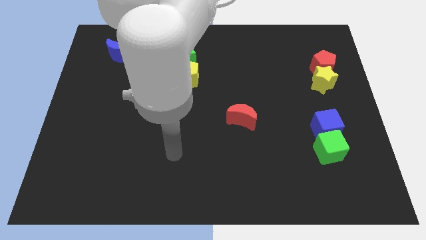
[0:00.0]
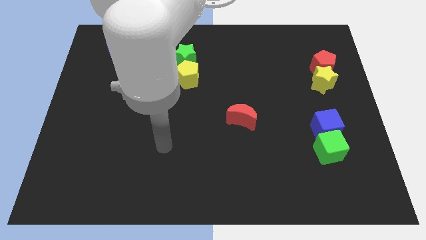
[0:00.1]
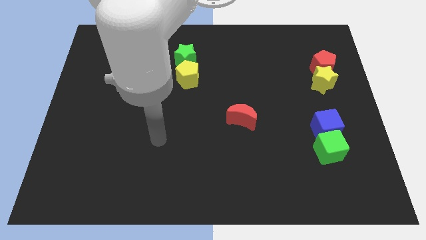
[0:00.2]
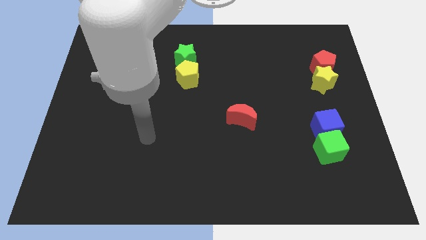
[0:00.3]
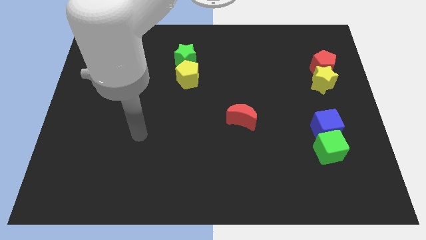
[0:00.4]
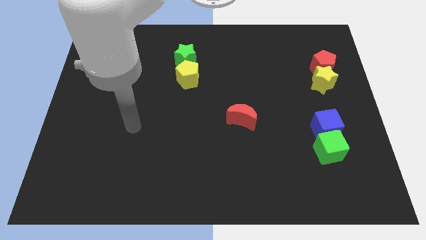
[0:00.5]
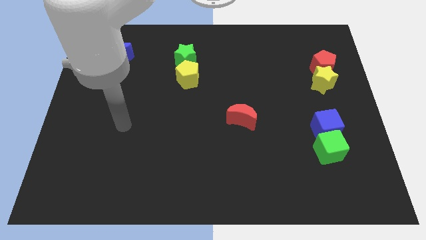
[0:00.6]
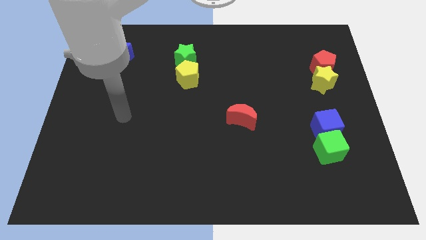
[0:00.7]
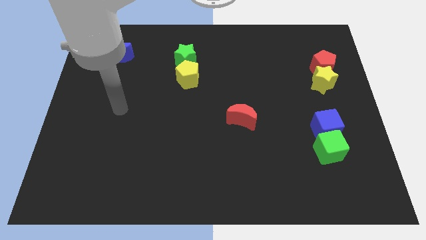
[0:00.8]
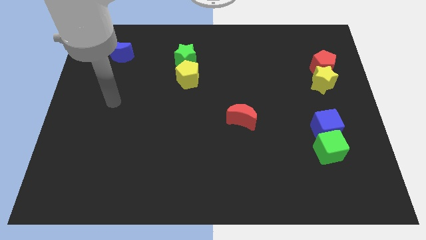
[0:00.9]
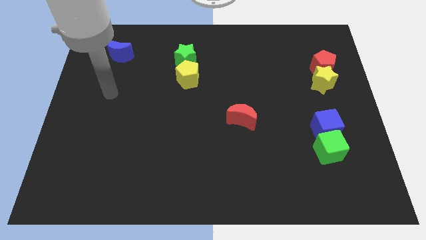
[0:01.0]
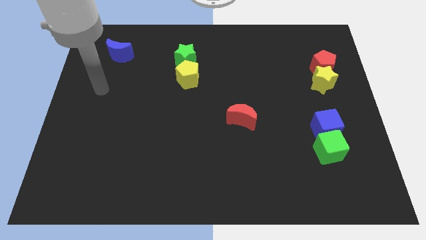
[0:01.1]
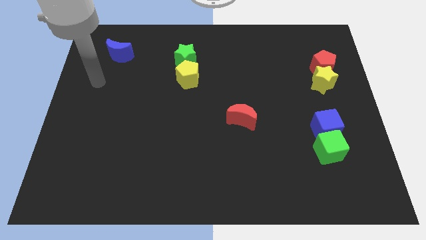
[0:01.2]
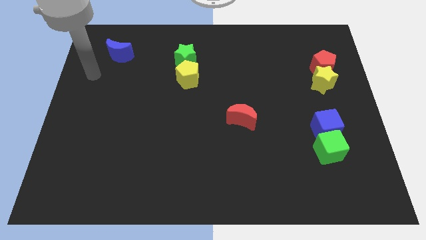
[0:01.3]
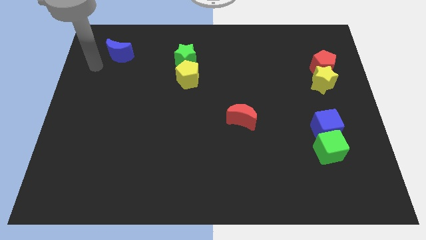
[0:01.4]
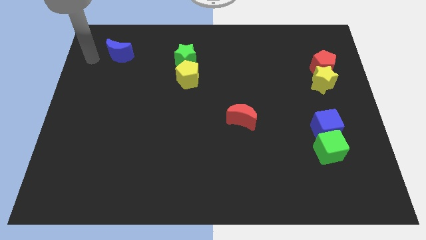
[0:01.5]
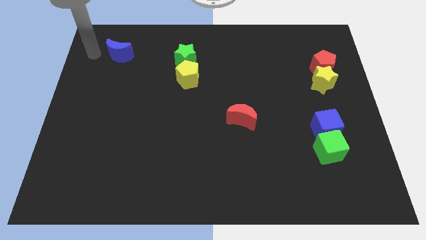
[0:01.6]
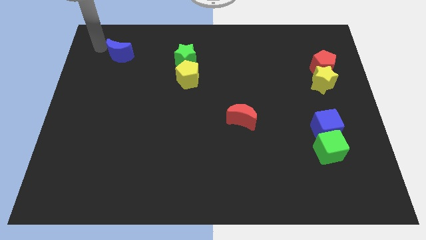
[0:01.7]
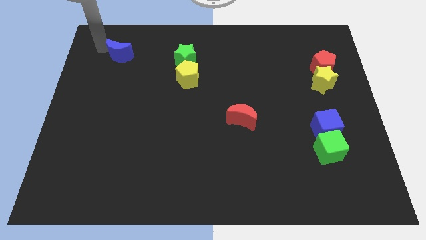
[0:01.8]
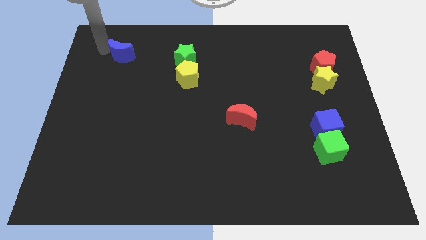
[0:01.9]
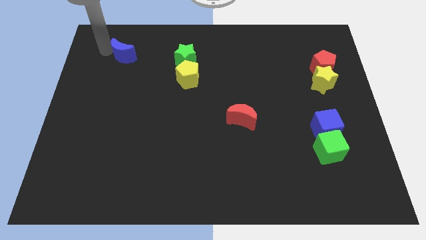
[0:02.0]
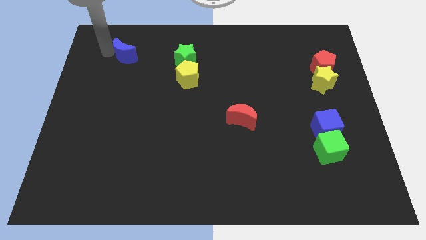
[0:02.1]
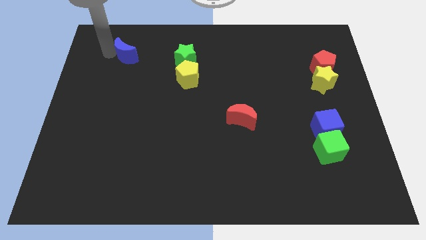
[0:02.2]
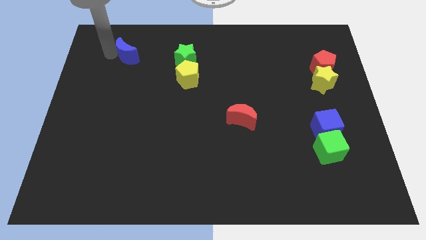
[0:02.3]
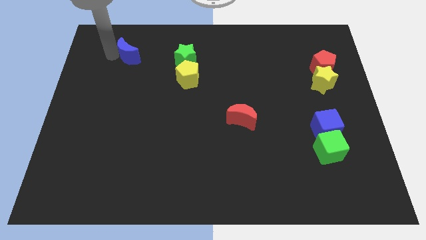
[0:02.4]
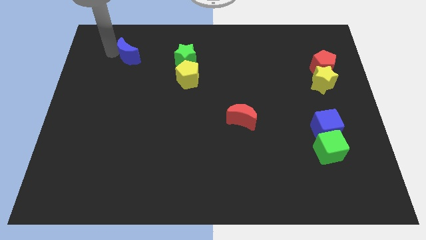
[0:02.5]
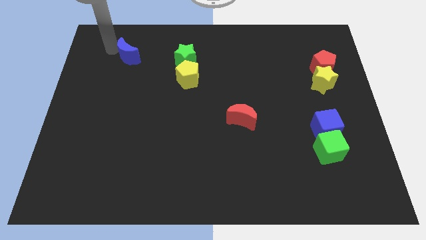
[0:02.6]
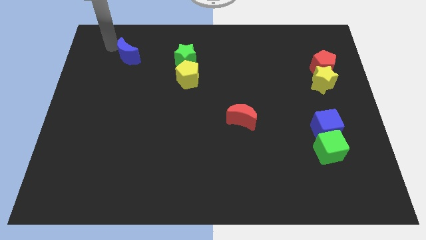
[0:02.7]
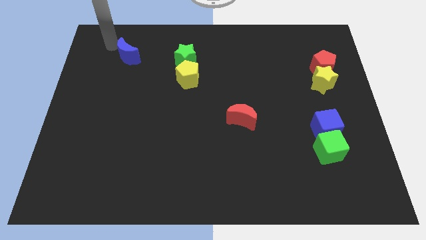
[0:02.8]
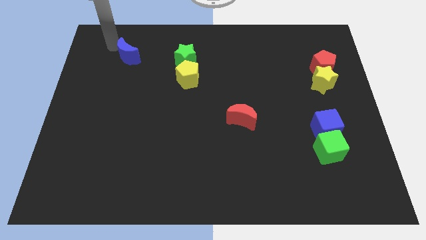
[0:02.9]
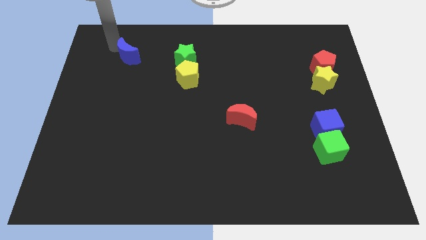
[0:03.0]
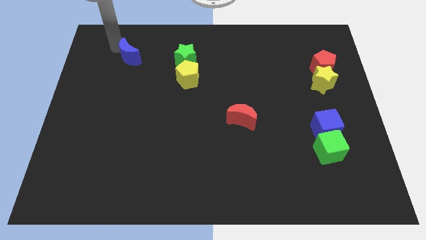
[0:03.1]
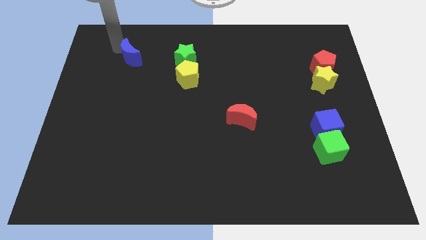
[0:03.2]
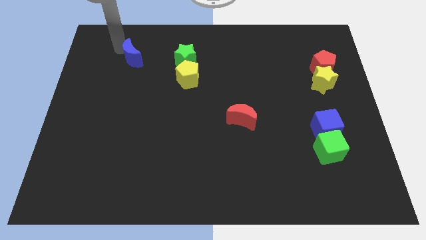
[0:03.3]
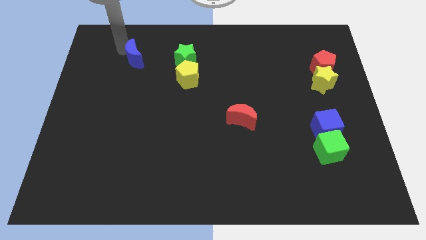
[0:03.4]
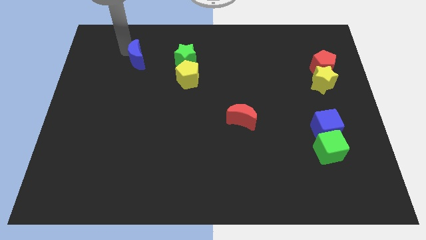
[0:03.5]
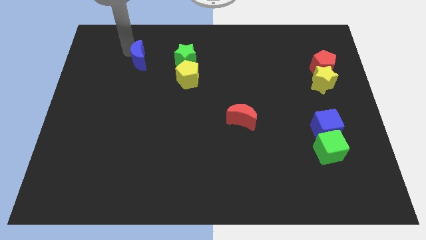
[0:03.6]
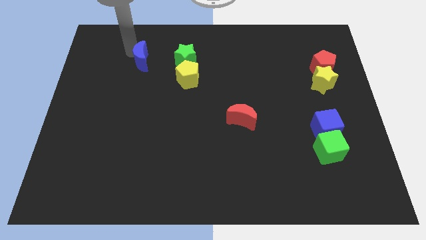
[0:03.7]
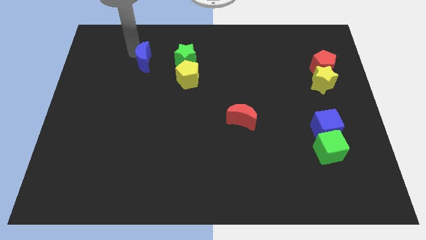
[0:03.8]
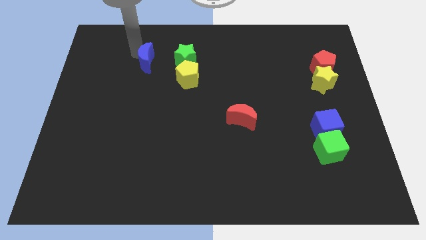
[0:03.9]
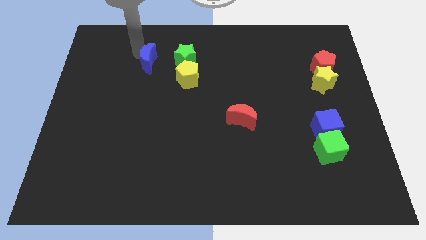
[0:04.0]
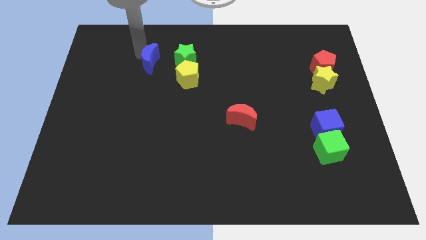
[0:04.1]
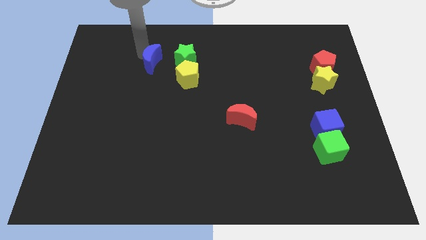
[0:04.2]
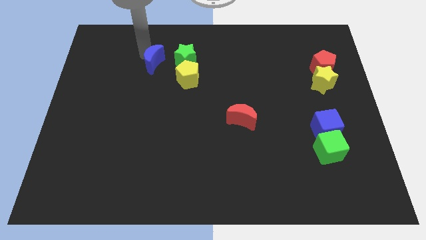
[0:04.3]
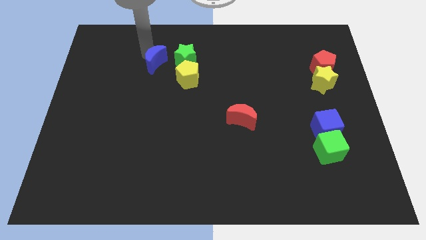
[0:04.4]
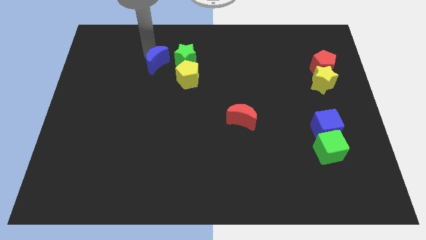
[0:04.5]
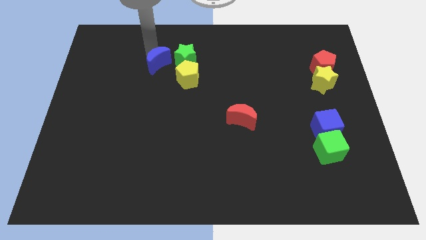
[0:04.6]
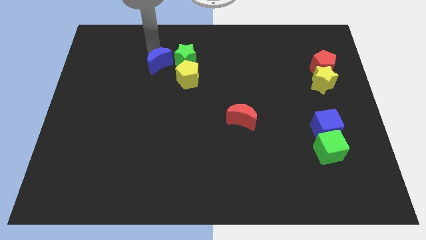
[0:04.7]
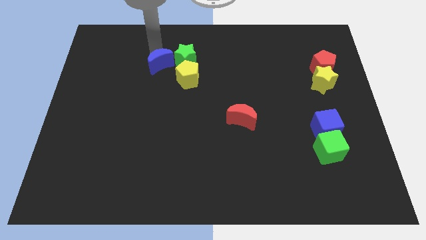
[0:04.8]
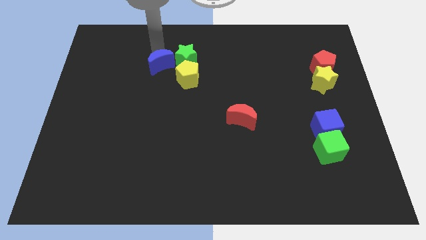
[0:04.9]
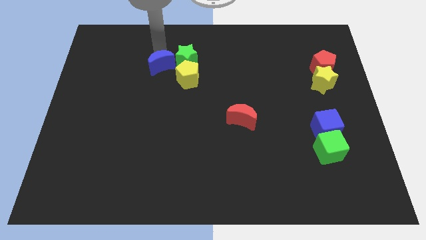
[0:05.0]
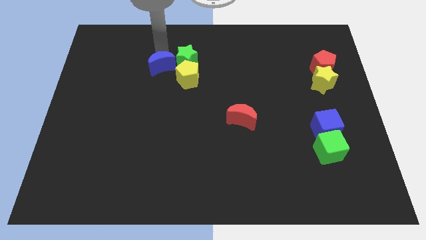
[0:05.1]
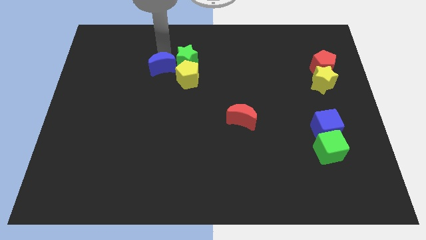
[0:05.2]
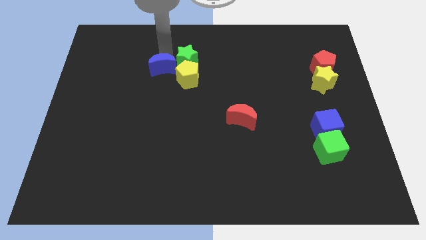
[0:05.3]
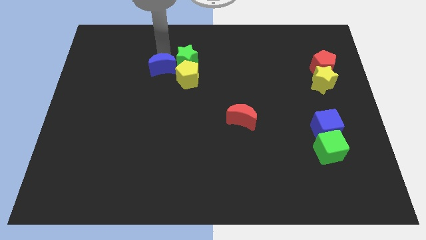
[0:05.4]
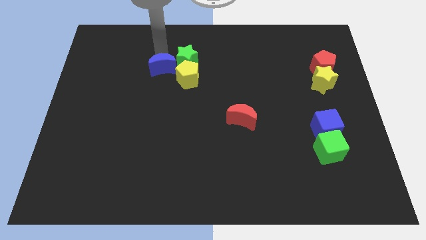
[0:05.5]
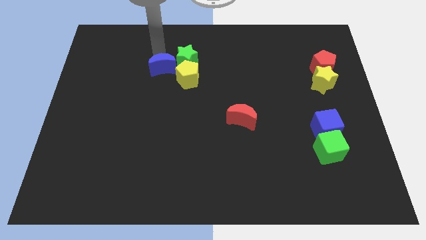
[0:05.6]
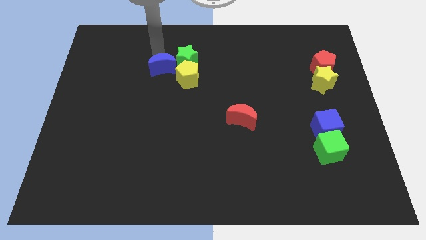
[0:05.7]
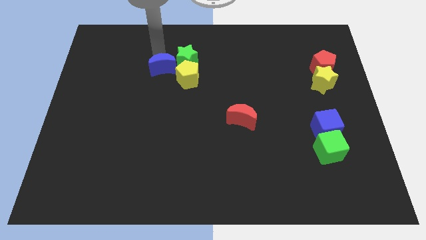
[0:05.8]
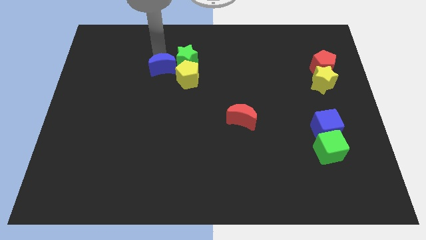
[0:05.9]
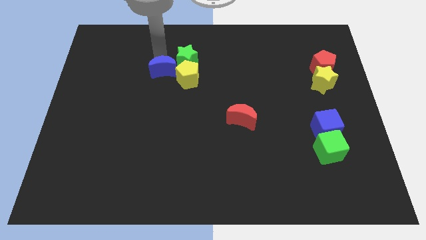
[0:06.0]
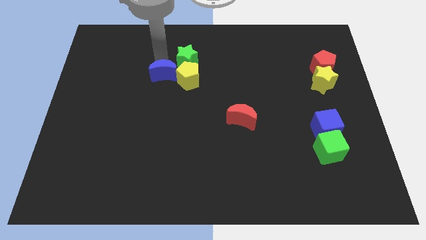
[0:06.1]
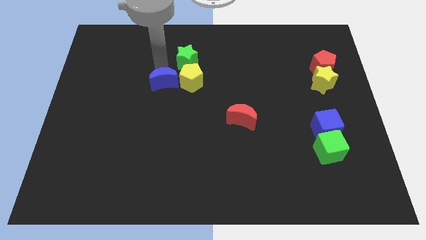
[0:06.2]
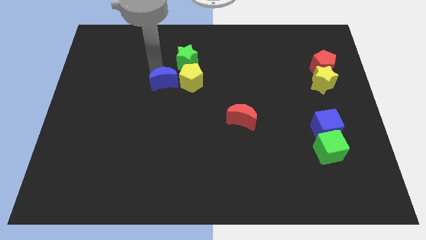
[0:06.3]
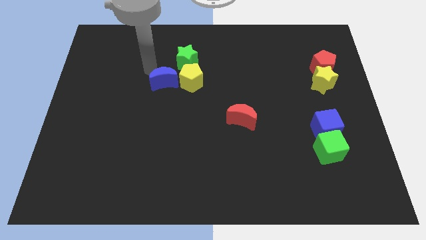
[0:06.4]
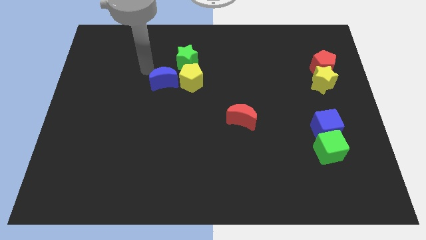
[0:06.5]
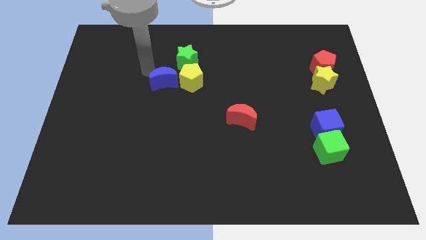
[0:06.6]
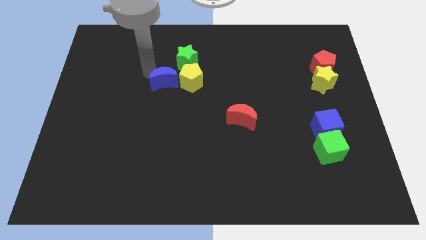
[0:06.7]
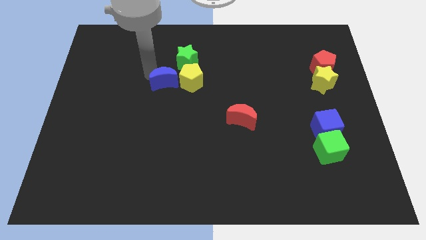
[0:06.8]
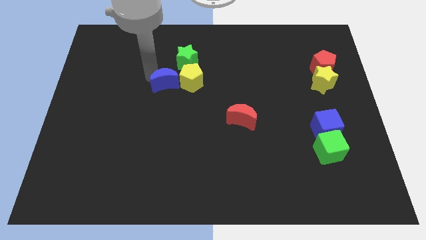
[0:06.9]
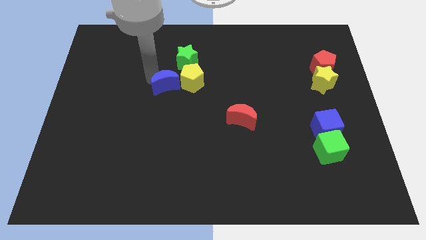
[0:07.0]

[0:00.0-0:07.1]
put the blue moon to the middle of the board
